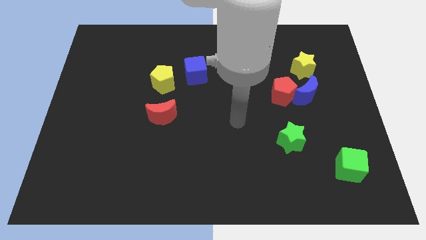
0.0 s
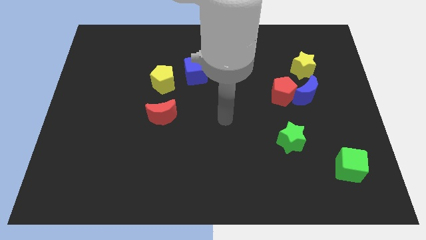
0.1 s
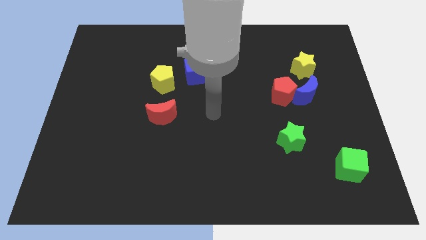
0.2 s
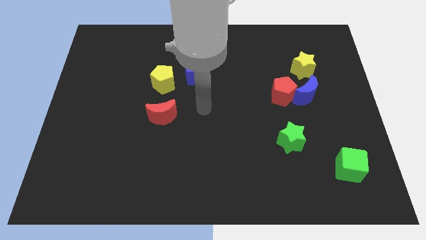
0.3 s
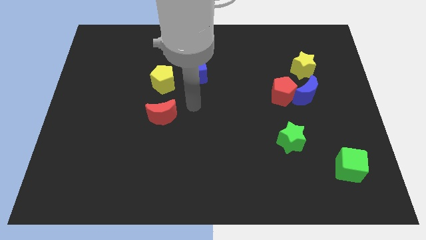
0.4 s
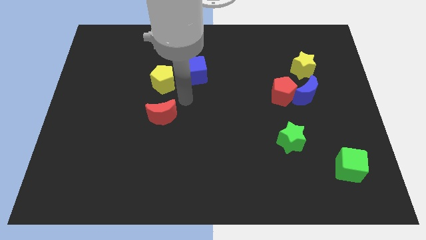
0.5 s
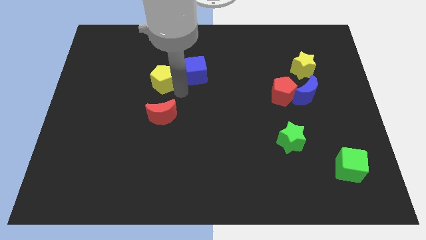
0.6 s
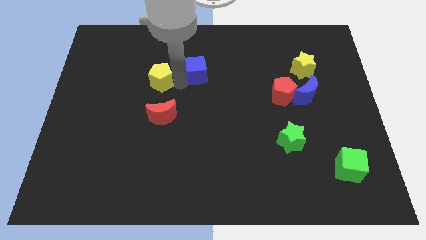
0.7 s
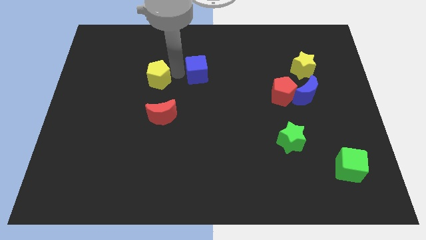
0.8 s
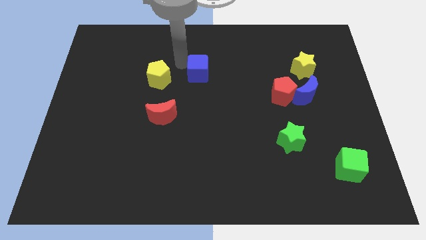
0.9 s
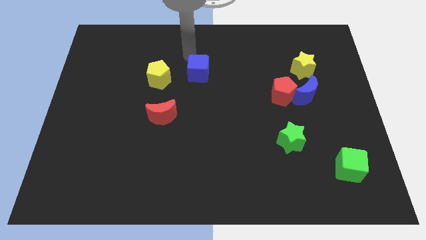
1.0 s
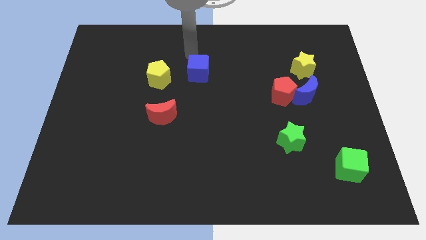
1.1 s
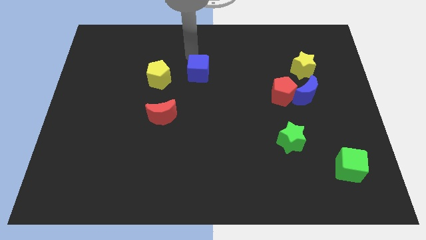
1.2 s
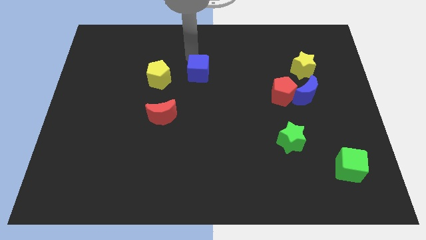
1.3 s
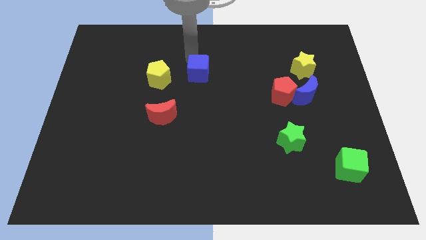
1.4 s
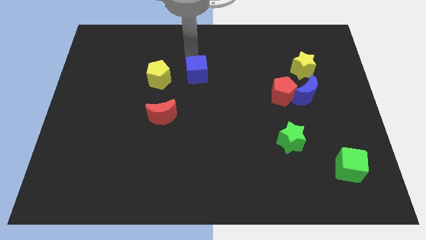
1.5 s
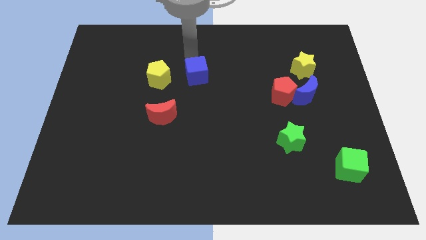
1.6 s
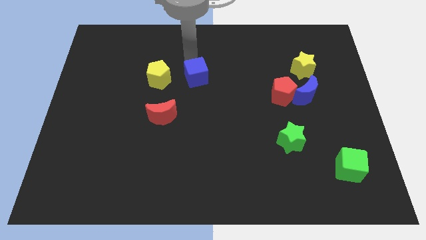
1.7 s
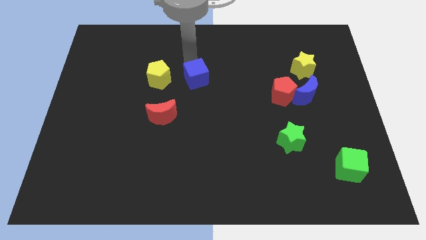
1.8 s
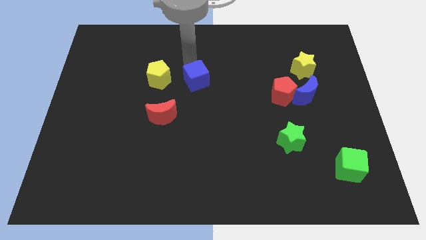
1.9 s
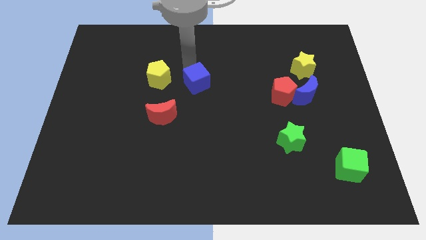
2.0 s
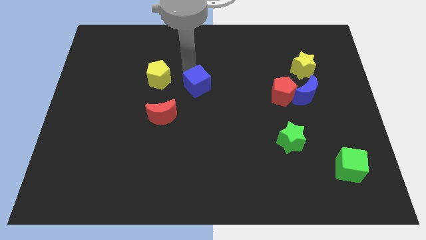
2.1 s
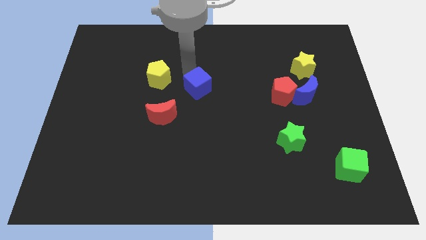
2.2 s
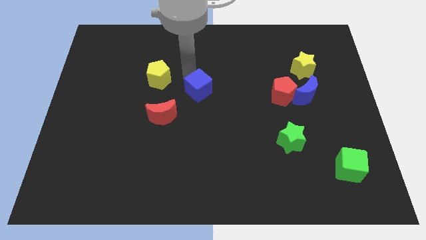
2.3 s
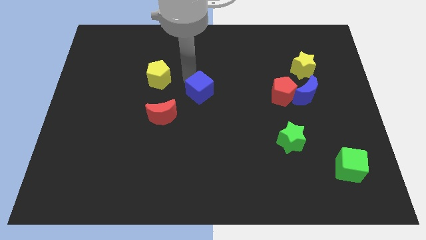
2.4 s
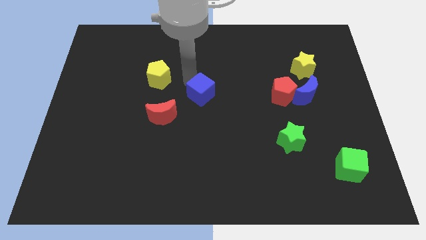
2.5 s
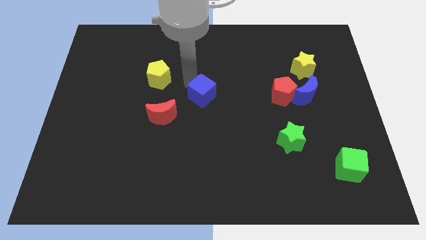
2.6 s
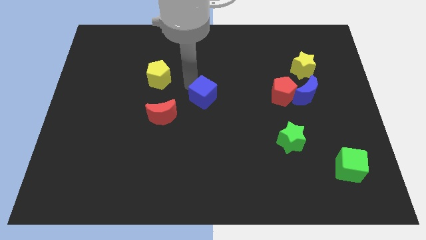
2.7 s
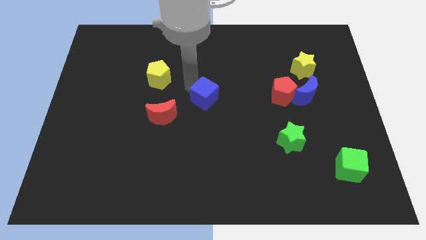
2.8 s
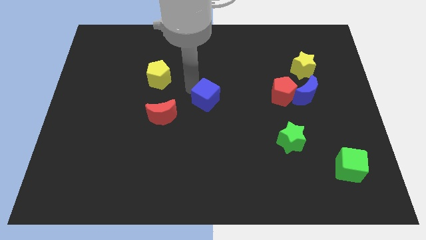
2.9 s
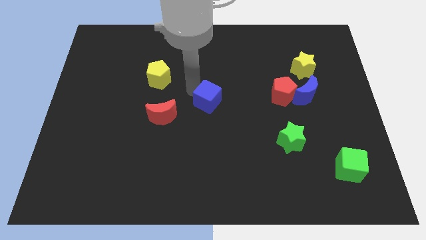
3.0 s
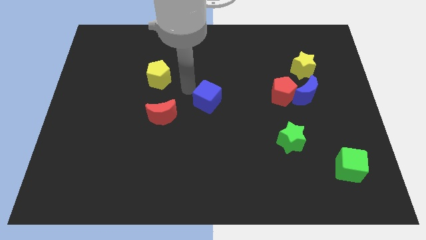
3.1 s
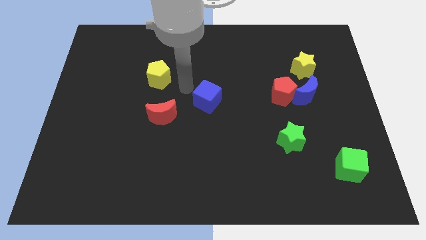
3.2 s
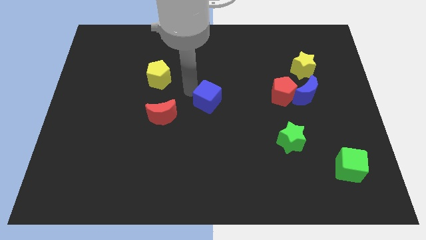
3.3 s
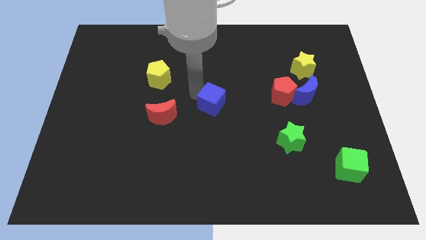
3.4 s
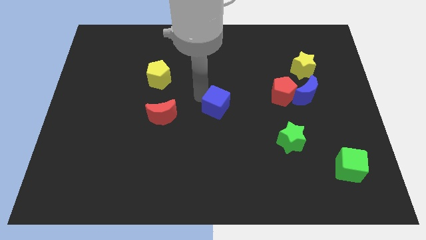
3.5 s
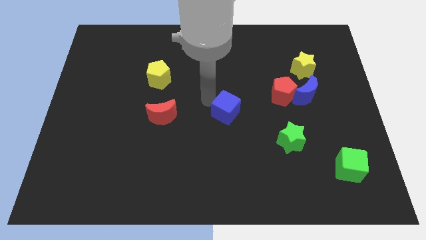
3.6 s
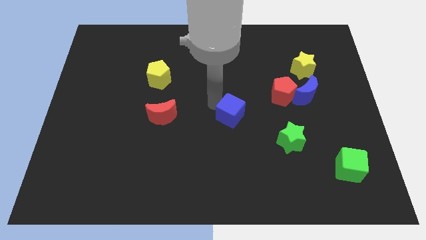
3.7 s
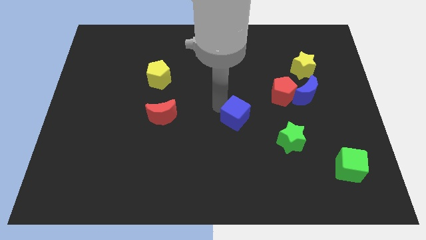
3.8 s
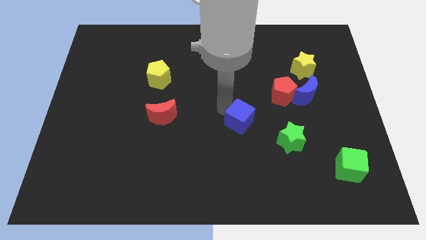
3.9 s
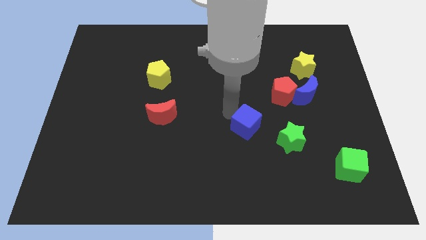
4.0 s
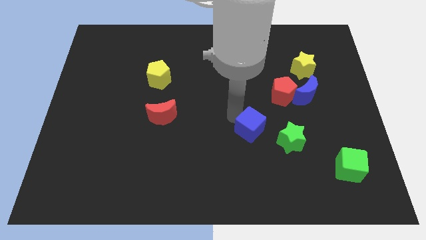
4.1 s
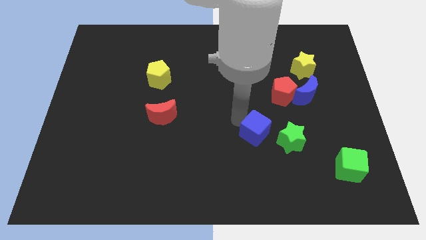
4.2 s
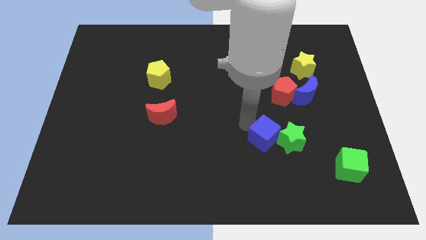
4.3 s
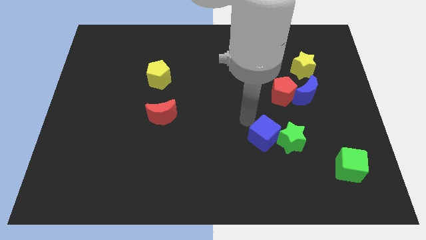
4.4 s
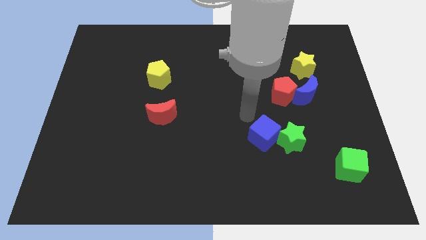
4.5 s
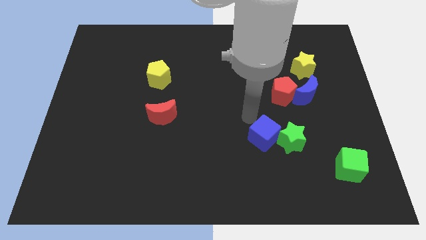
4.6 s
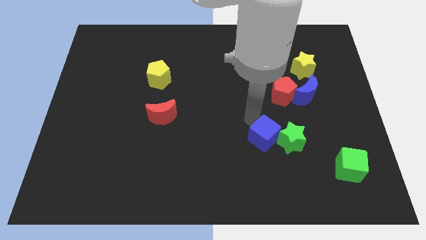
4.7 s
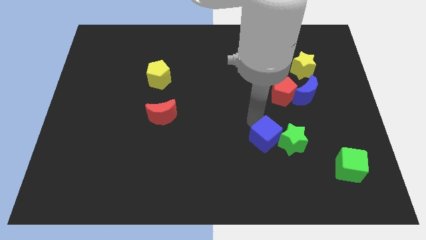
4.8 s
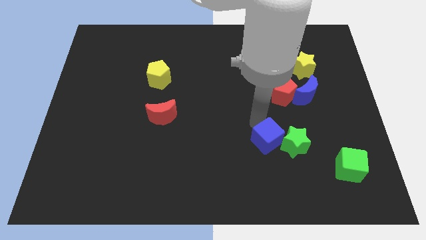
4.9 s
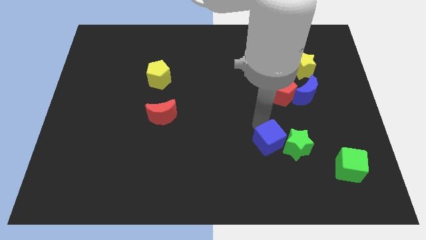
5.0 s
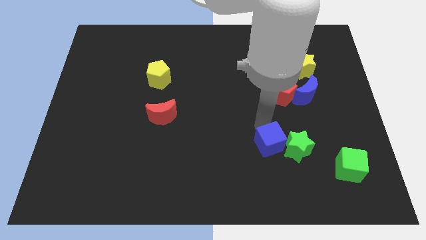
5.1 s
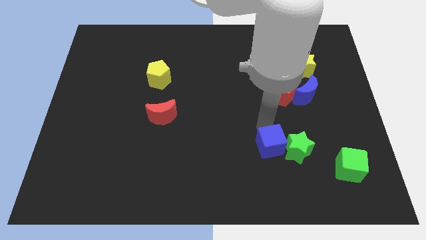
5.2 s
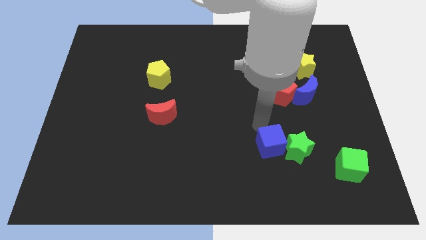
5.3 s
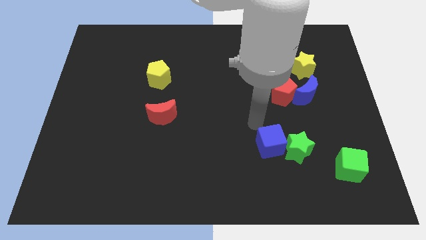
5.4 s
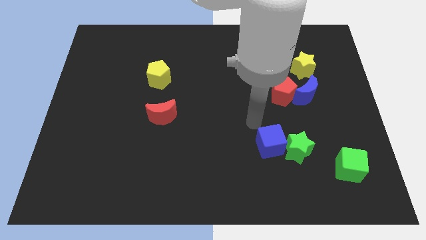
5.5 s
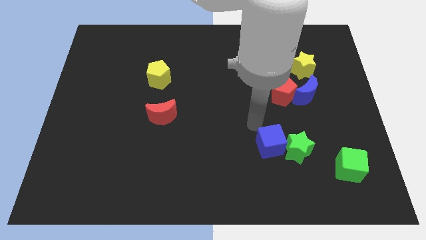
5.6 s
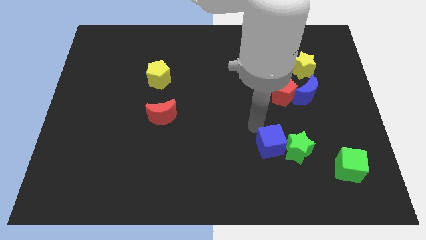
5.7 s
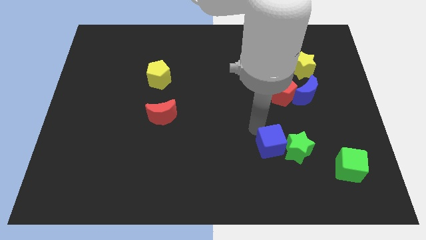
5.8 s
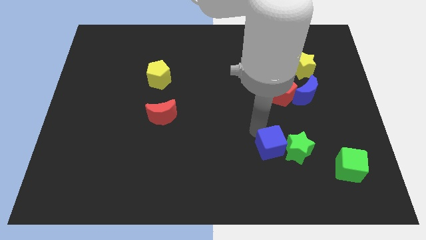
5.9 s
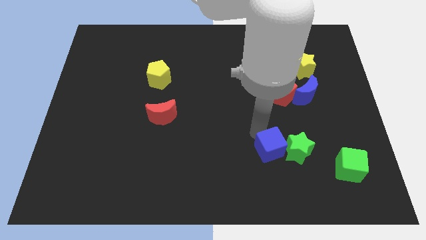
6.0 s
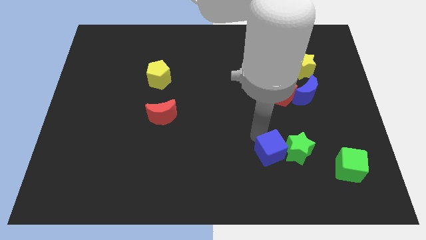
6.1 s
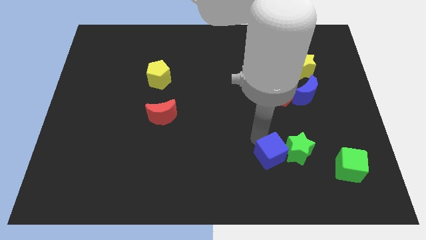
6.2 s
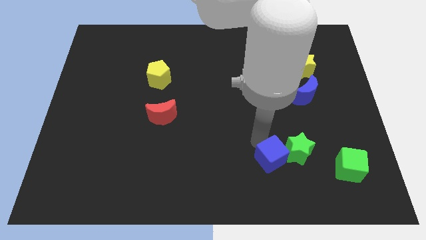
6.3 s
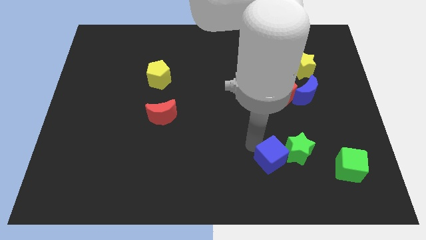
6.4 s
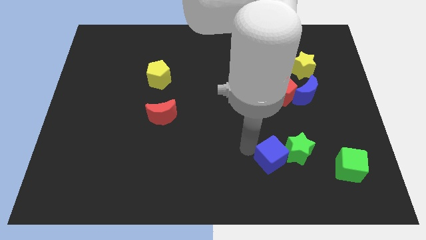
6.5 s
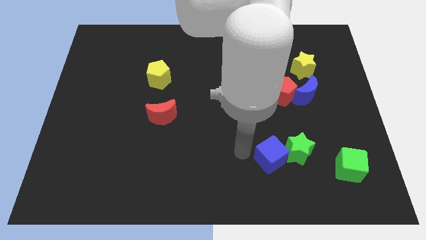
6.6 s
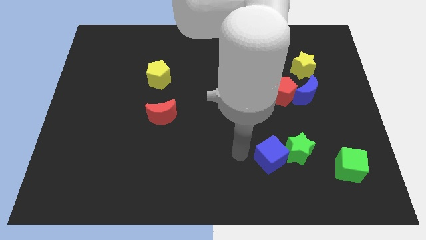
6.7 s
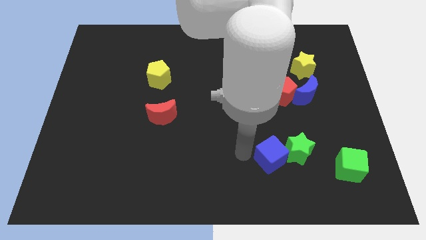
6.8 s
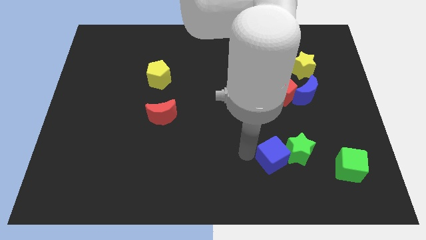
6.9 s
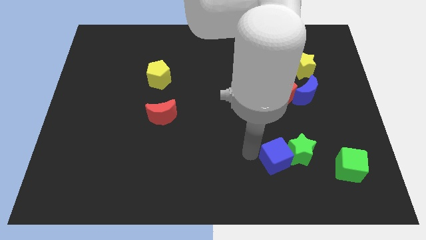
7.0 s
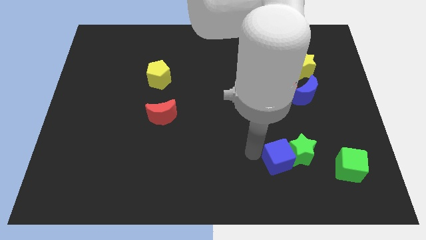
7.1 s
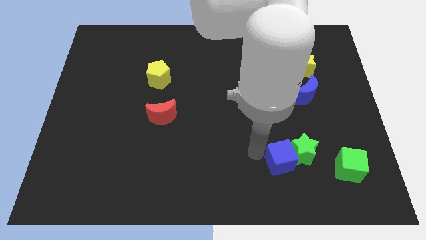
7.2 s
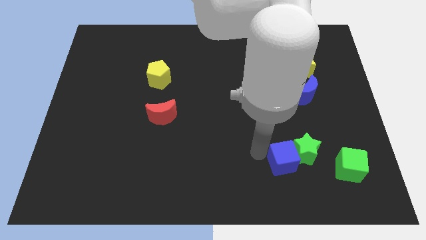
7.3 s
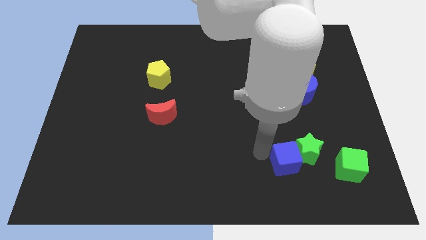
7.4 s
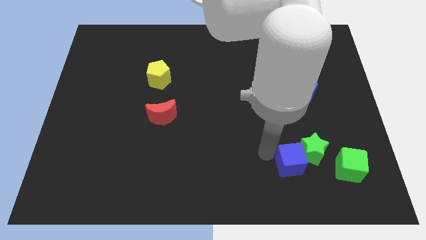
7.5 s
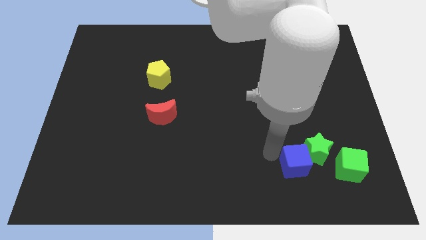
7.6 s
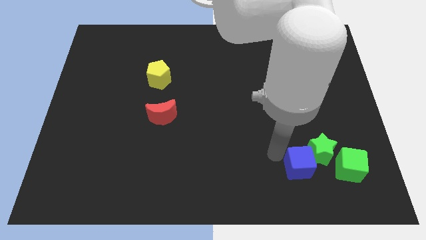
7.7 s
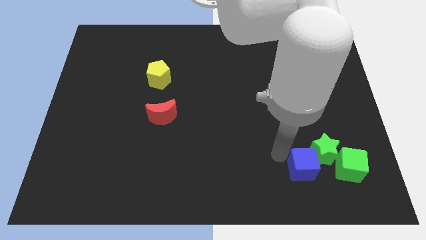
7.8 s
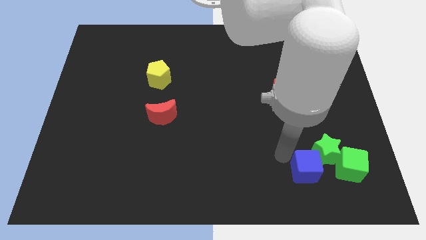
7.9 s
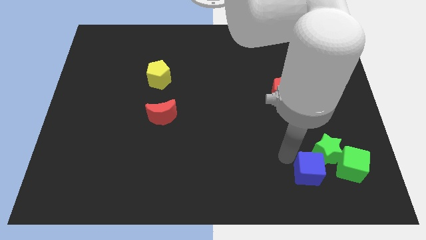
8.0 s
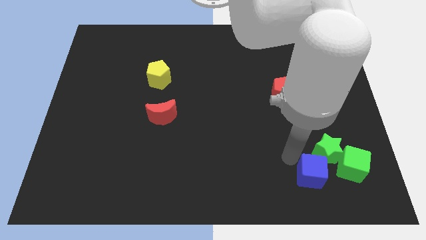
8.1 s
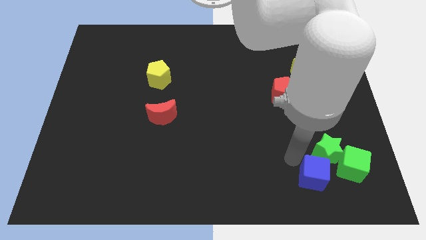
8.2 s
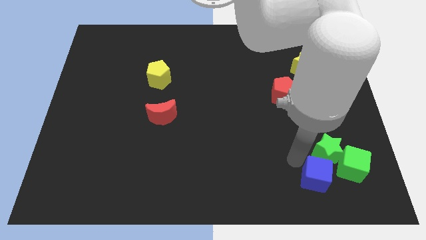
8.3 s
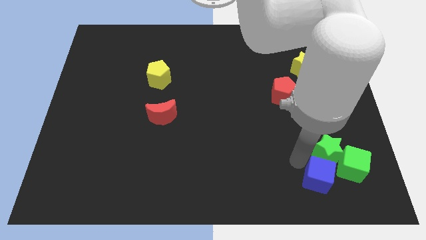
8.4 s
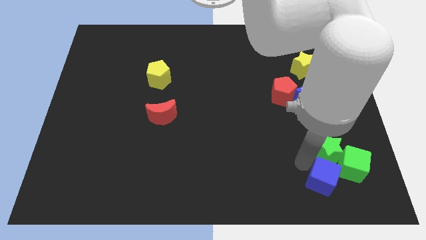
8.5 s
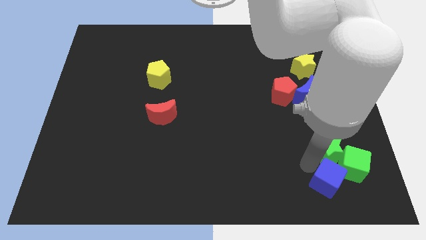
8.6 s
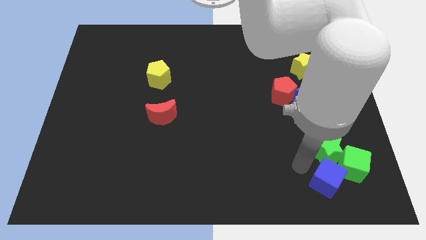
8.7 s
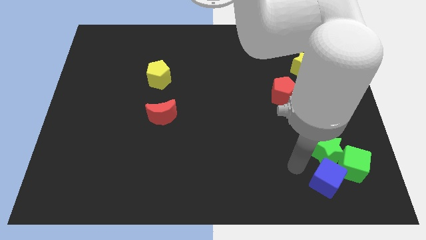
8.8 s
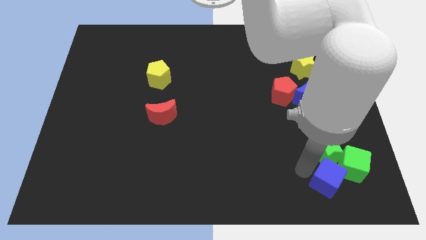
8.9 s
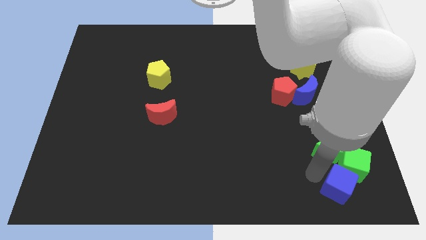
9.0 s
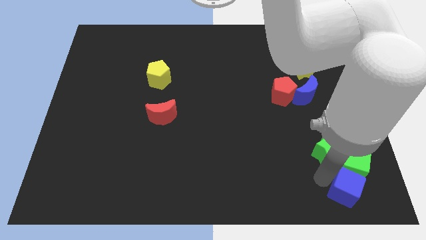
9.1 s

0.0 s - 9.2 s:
push the blue cube to the lower right corner
